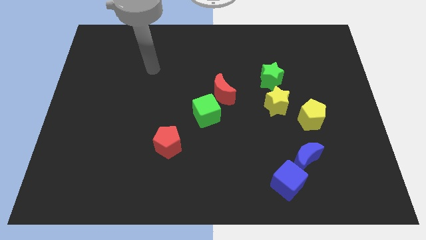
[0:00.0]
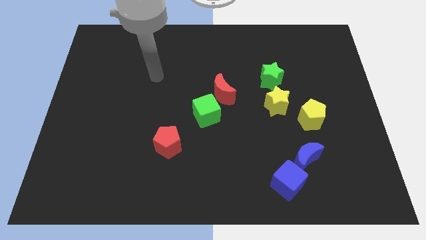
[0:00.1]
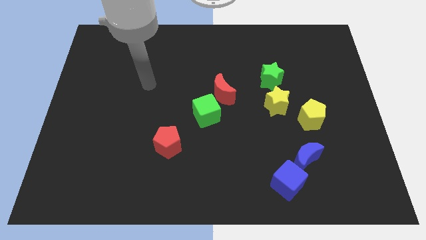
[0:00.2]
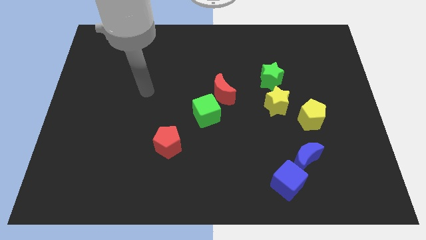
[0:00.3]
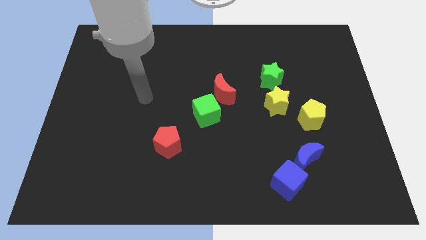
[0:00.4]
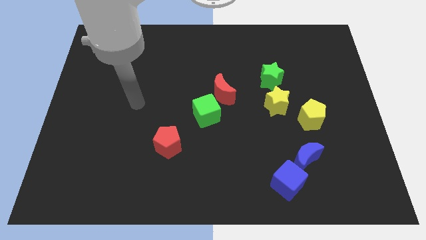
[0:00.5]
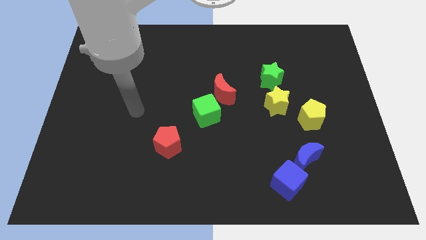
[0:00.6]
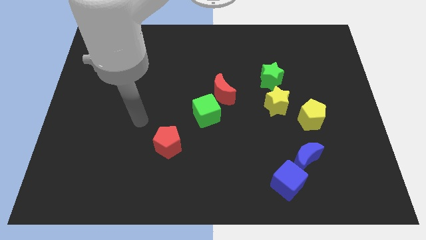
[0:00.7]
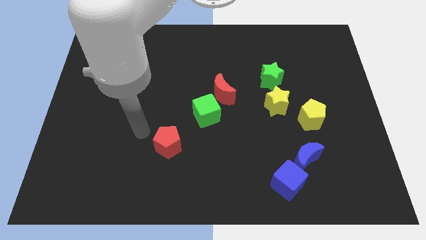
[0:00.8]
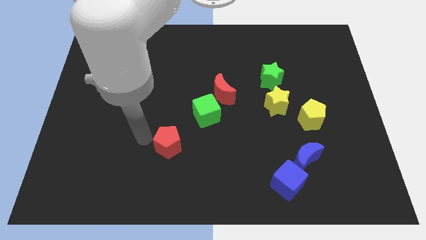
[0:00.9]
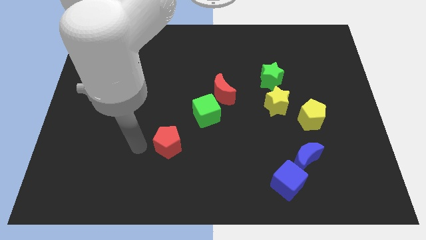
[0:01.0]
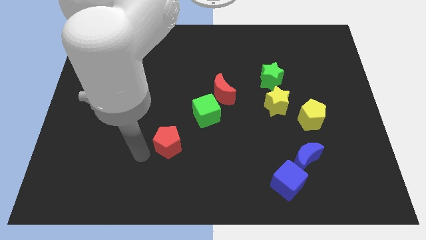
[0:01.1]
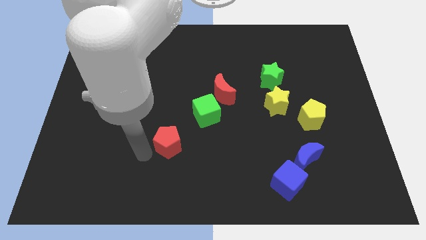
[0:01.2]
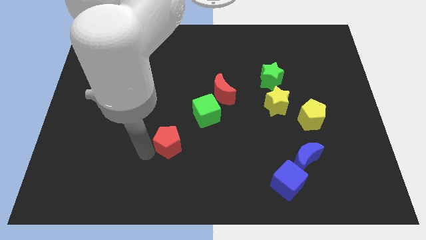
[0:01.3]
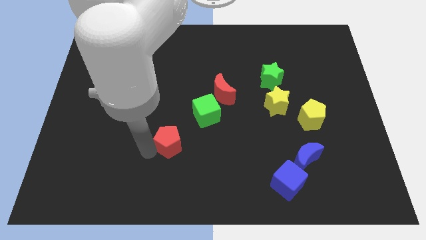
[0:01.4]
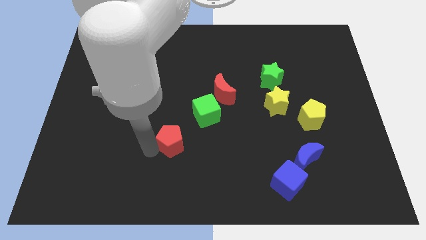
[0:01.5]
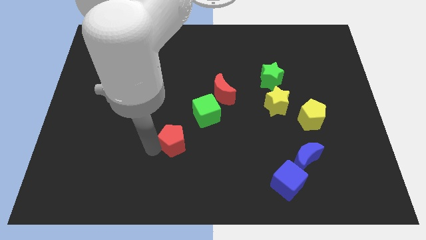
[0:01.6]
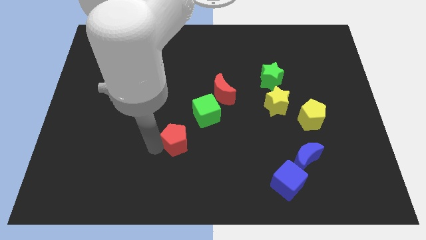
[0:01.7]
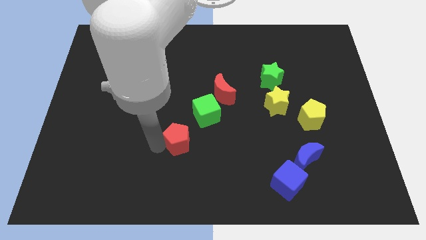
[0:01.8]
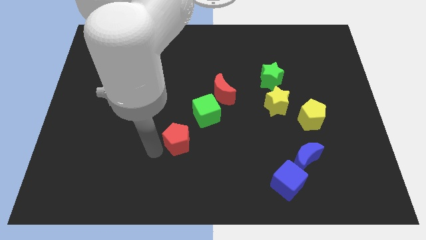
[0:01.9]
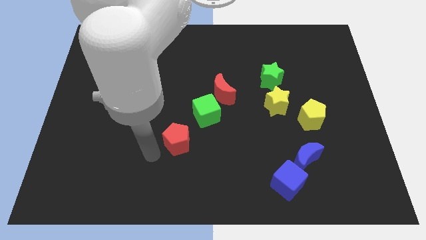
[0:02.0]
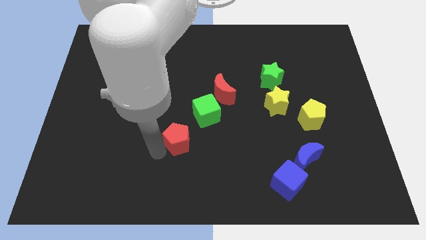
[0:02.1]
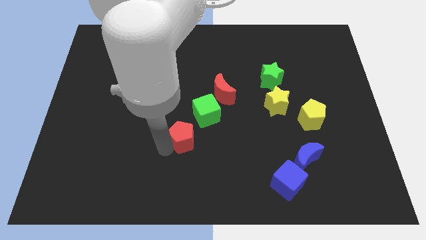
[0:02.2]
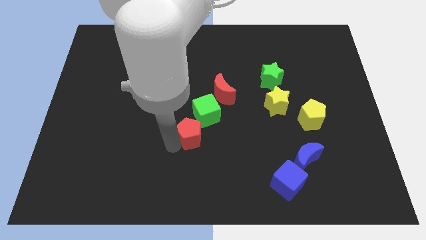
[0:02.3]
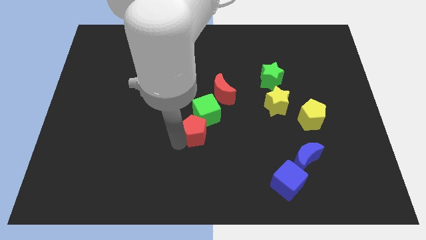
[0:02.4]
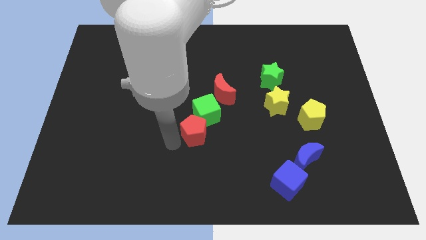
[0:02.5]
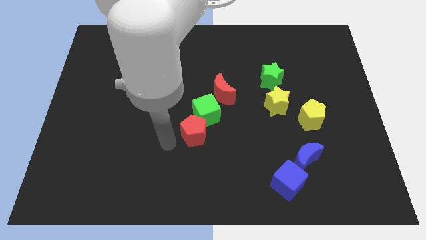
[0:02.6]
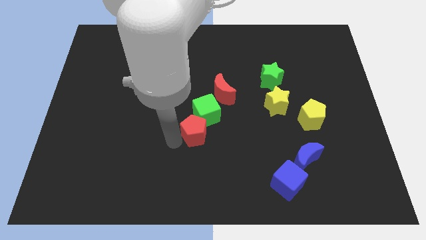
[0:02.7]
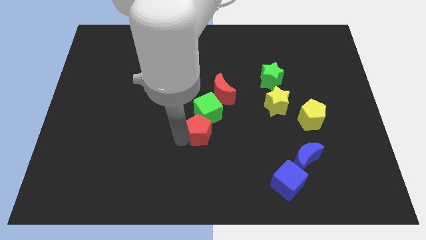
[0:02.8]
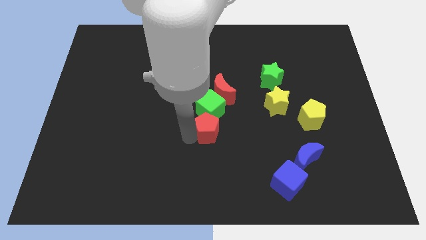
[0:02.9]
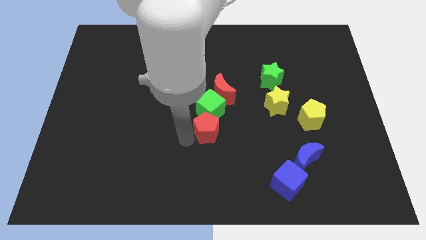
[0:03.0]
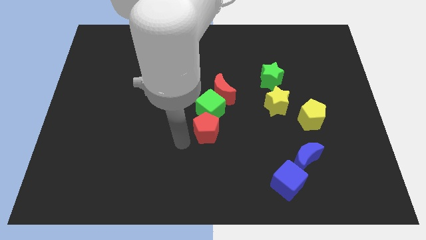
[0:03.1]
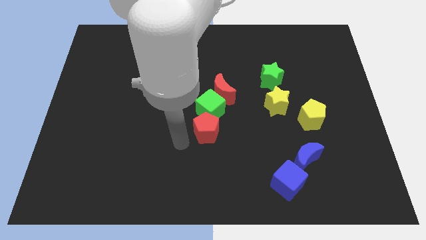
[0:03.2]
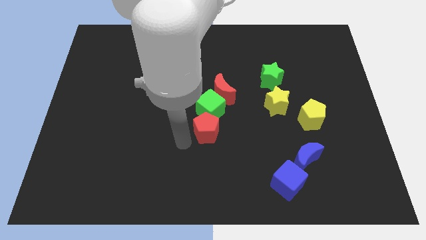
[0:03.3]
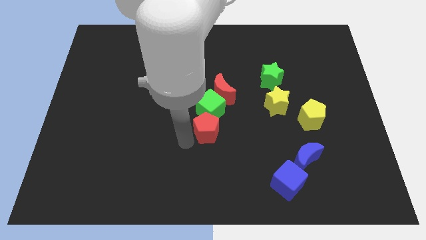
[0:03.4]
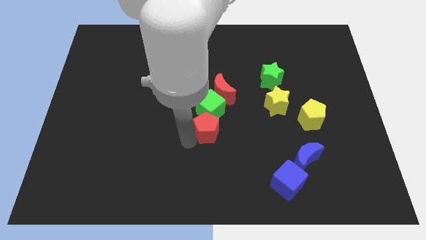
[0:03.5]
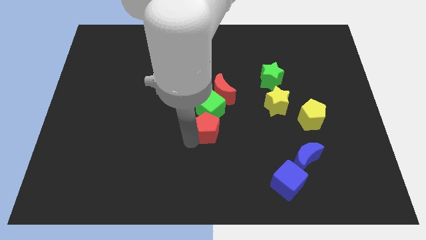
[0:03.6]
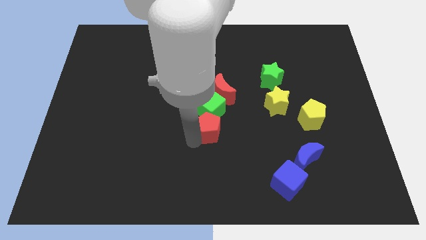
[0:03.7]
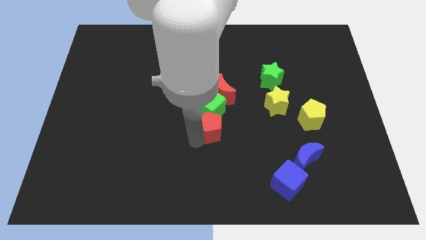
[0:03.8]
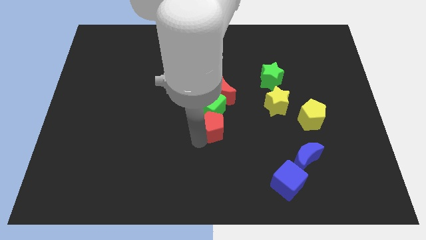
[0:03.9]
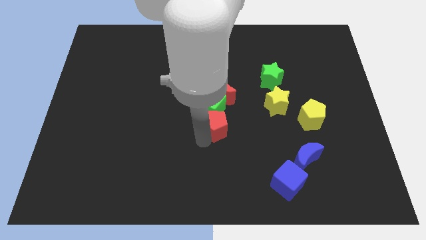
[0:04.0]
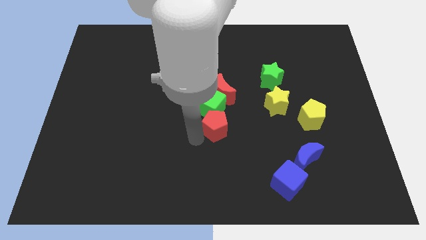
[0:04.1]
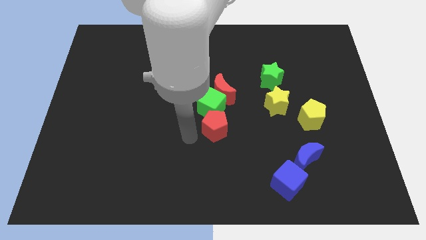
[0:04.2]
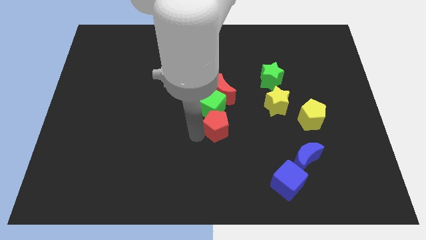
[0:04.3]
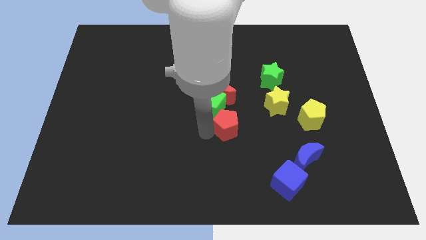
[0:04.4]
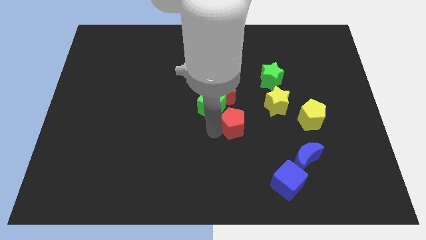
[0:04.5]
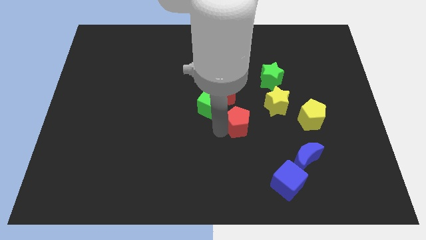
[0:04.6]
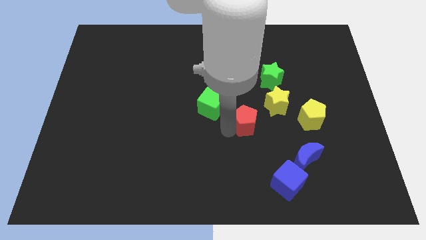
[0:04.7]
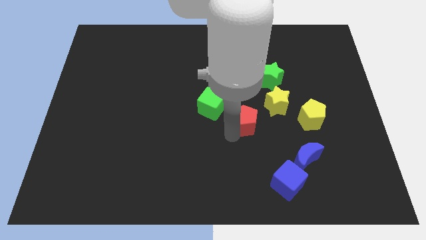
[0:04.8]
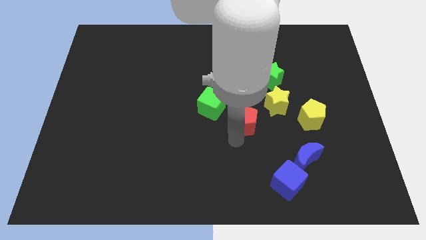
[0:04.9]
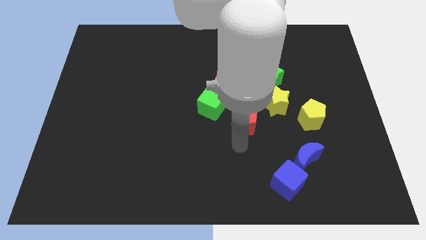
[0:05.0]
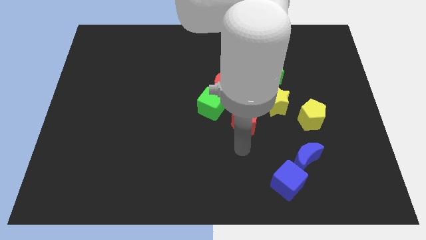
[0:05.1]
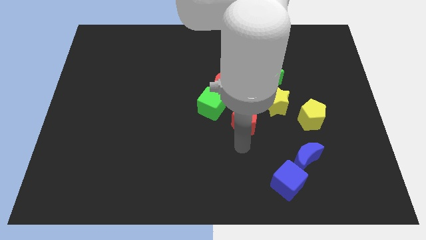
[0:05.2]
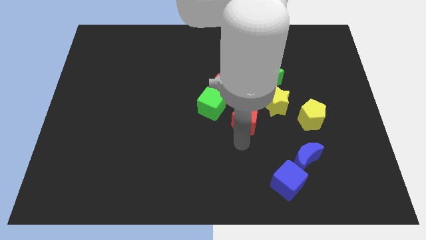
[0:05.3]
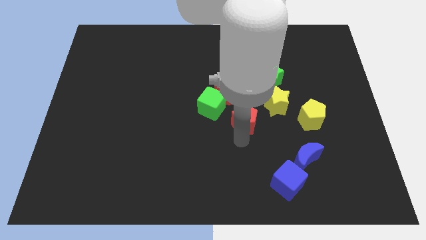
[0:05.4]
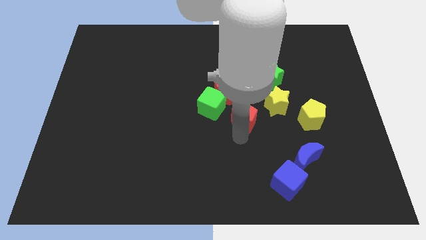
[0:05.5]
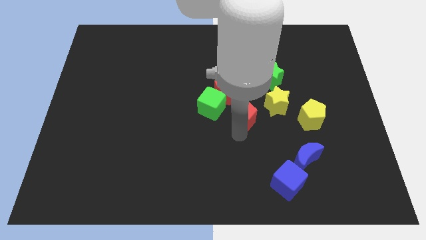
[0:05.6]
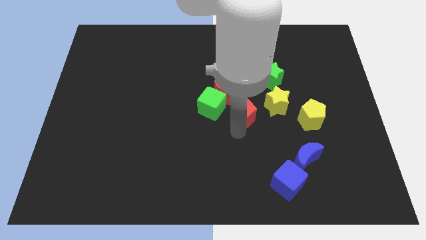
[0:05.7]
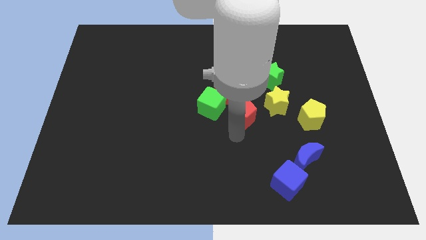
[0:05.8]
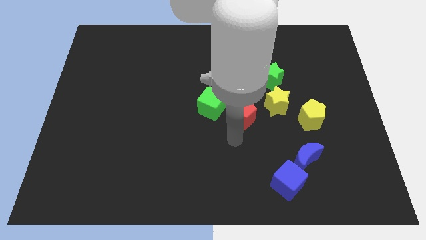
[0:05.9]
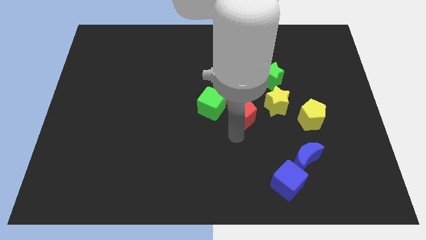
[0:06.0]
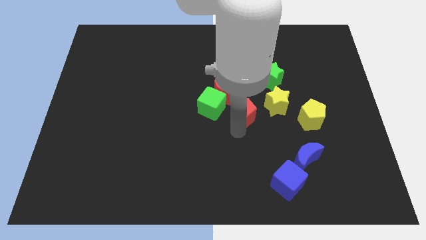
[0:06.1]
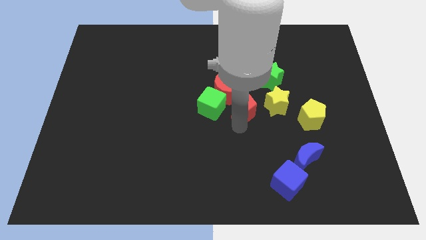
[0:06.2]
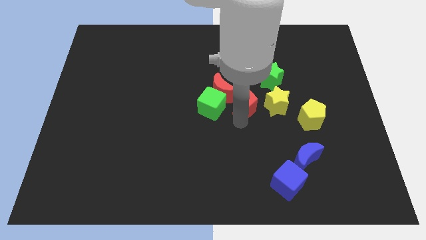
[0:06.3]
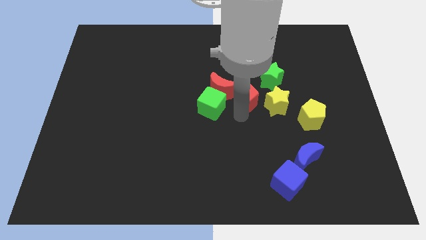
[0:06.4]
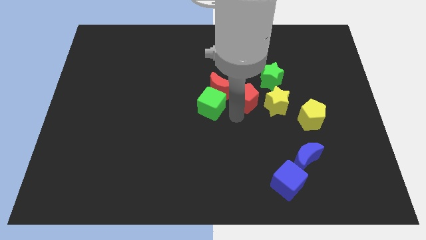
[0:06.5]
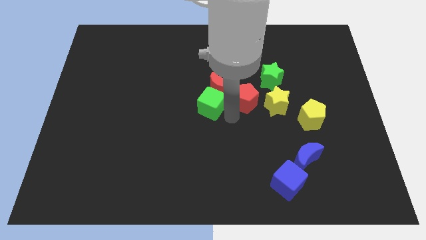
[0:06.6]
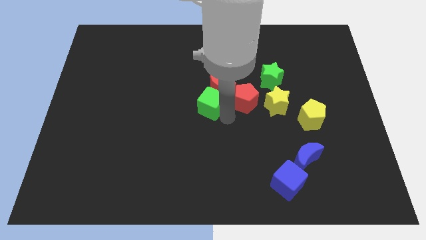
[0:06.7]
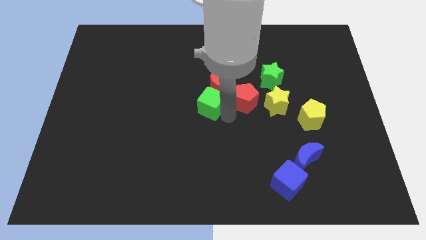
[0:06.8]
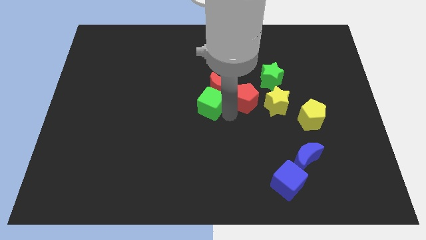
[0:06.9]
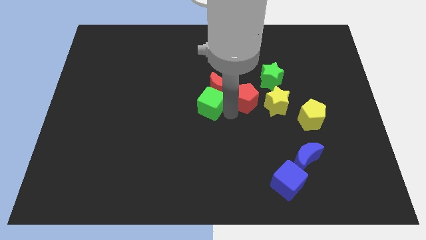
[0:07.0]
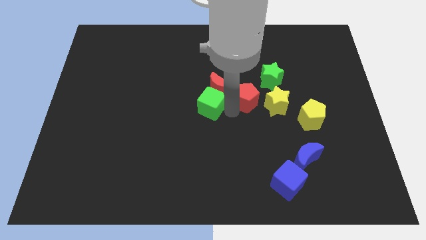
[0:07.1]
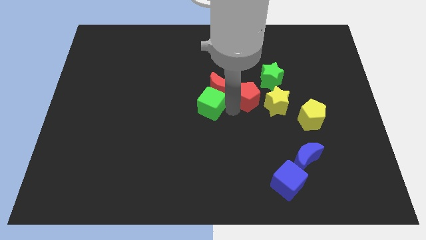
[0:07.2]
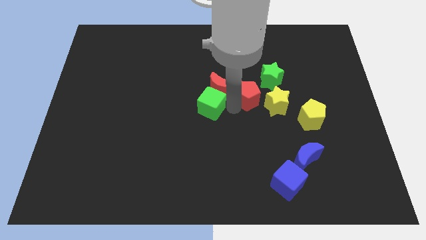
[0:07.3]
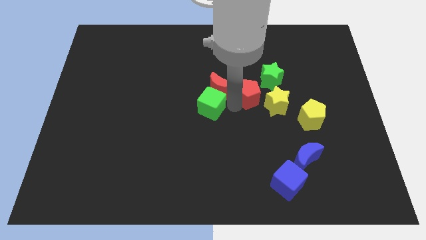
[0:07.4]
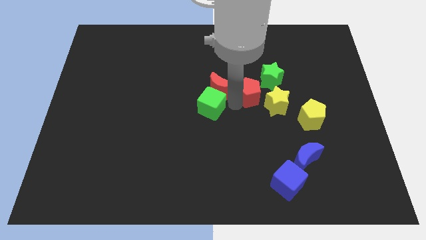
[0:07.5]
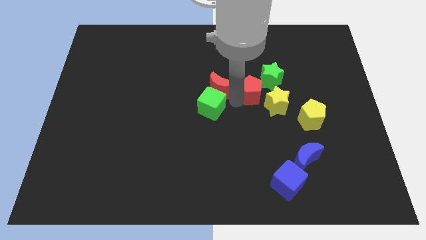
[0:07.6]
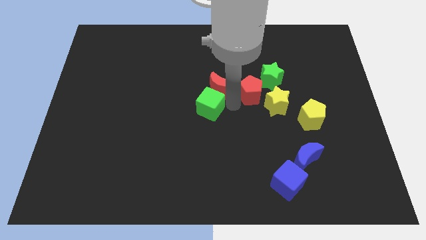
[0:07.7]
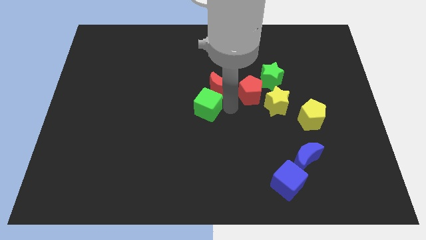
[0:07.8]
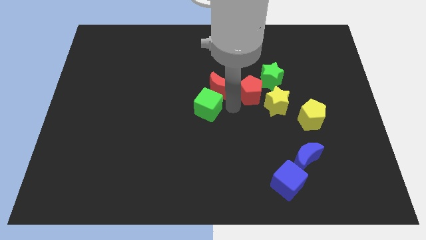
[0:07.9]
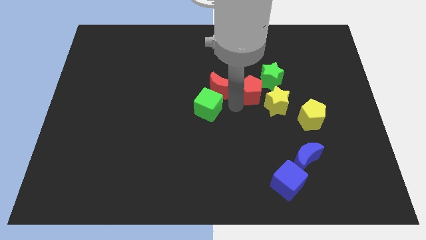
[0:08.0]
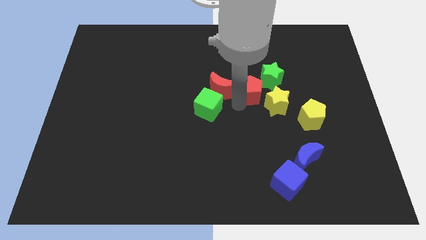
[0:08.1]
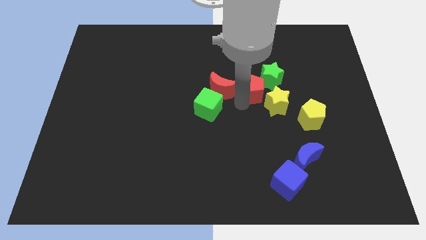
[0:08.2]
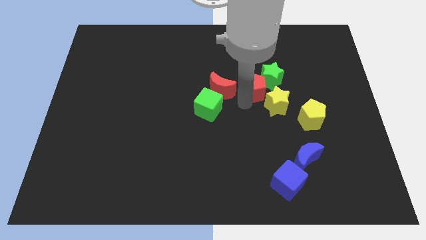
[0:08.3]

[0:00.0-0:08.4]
push the red pentagon to the green star
